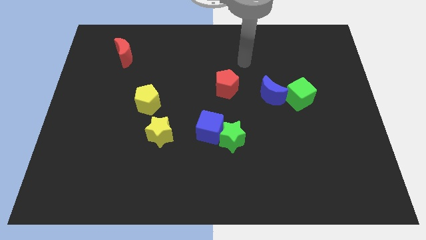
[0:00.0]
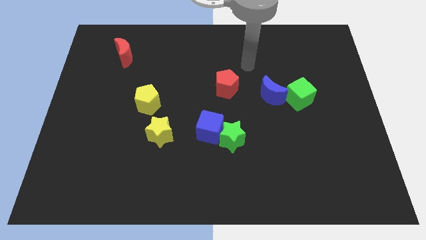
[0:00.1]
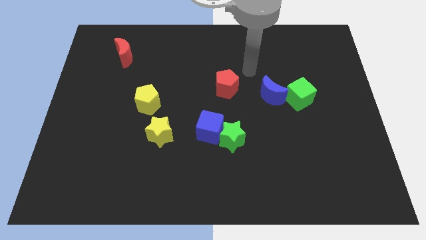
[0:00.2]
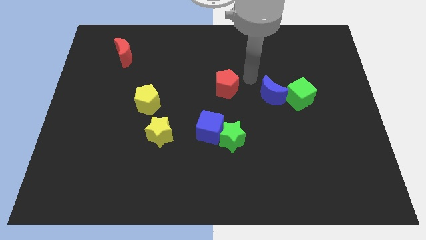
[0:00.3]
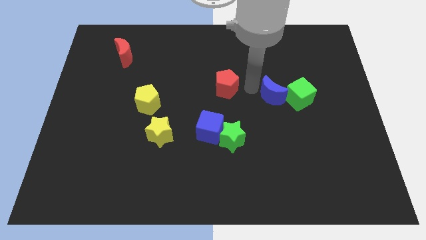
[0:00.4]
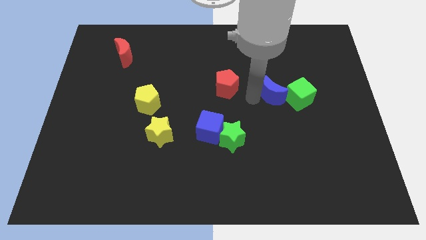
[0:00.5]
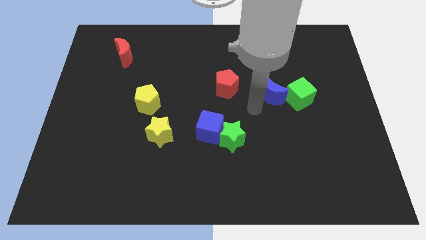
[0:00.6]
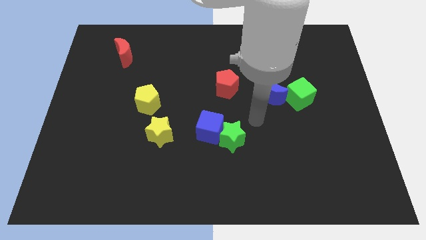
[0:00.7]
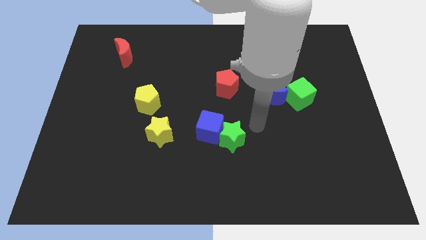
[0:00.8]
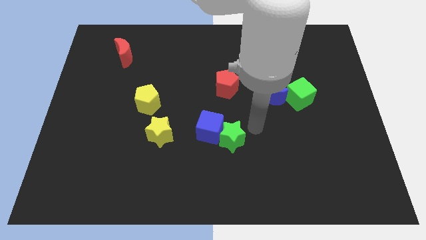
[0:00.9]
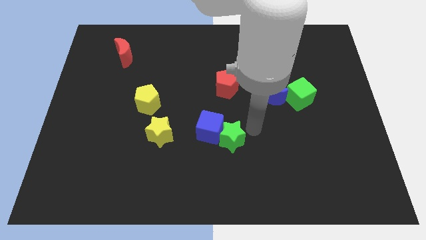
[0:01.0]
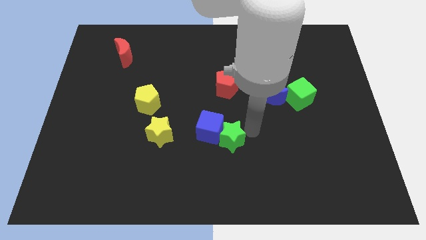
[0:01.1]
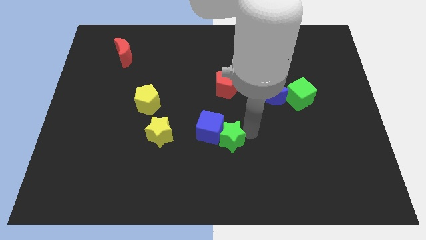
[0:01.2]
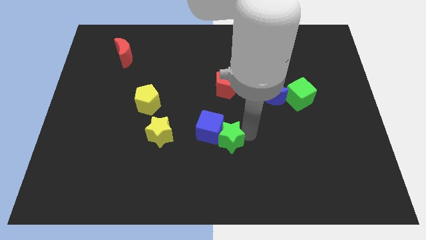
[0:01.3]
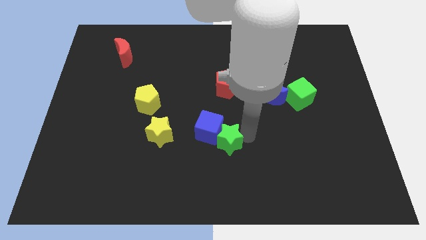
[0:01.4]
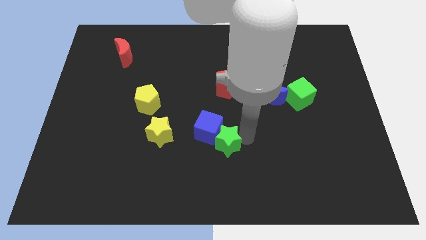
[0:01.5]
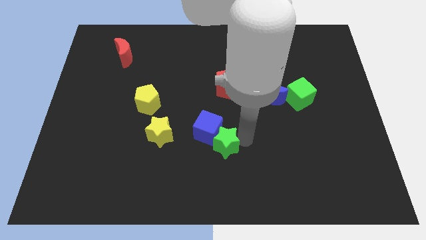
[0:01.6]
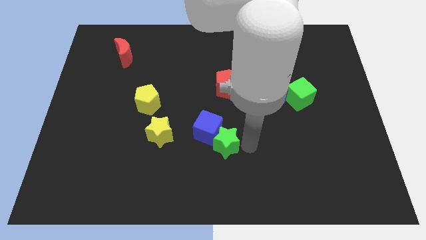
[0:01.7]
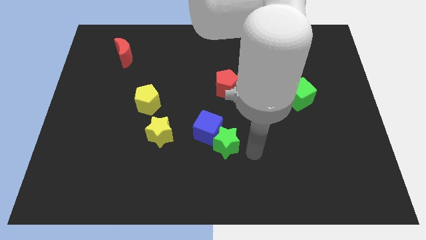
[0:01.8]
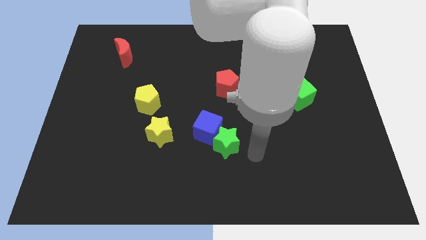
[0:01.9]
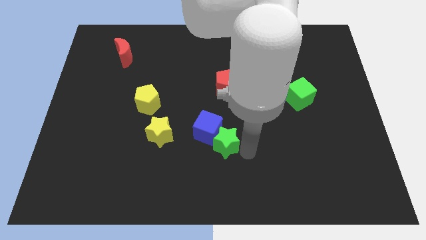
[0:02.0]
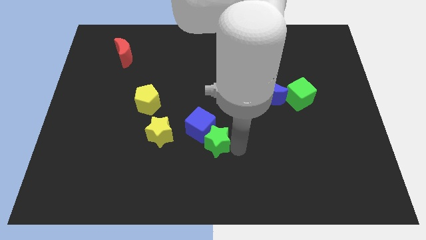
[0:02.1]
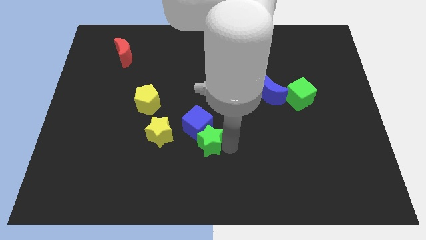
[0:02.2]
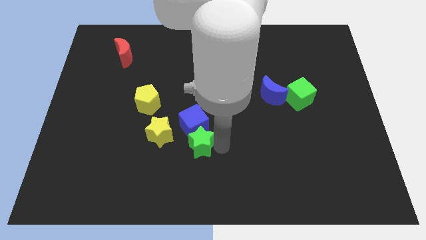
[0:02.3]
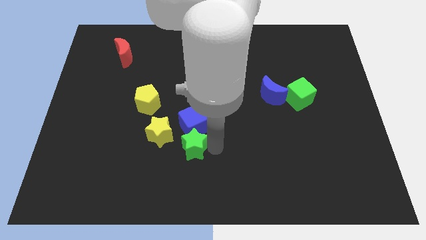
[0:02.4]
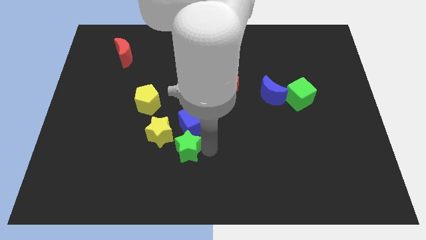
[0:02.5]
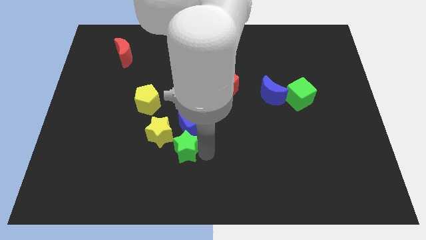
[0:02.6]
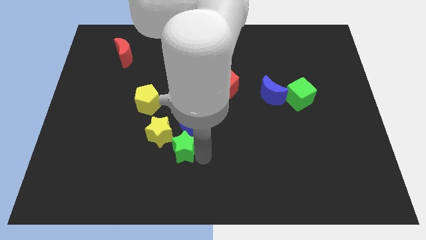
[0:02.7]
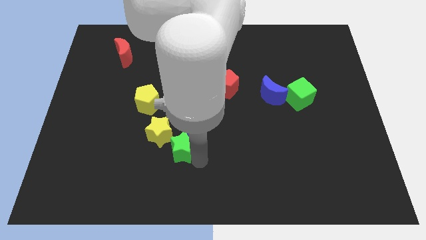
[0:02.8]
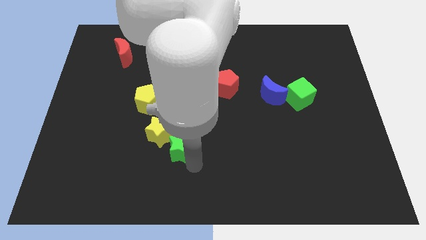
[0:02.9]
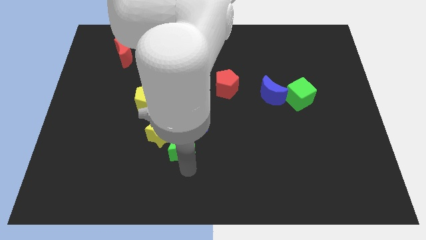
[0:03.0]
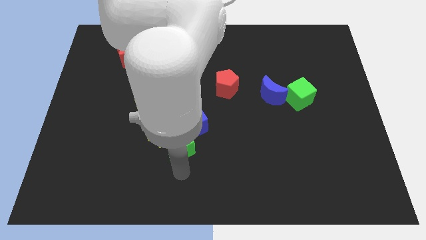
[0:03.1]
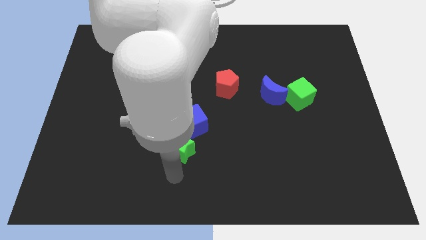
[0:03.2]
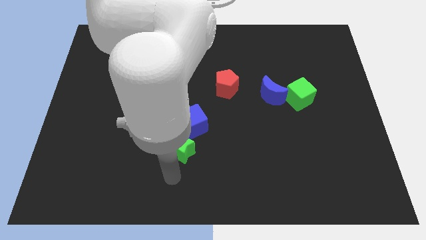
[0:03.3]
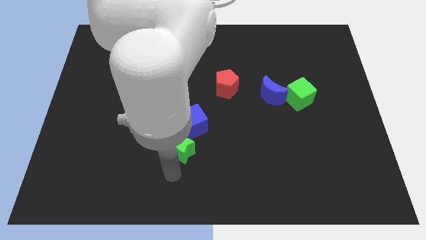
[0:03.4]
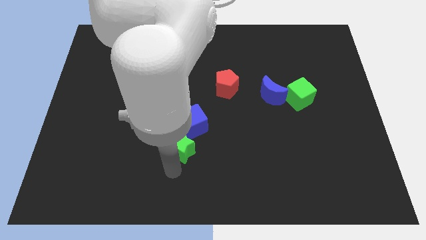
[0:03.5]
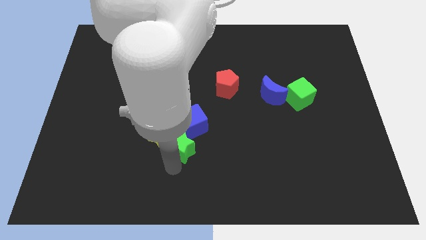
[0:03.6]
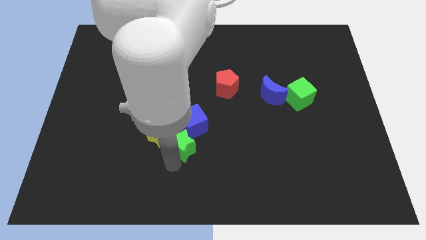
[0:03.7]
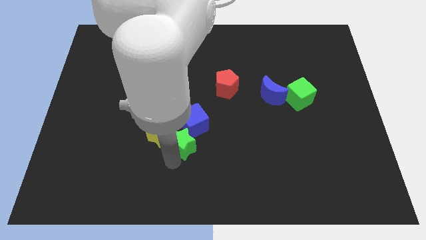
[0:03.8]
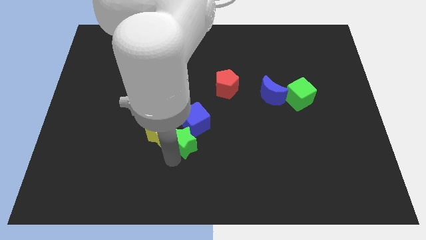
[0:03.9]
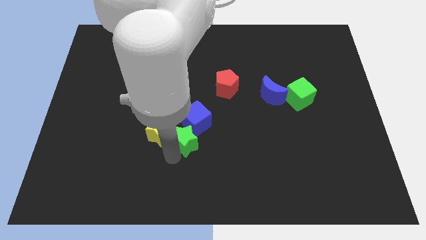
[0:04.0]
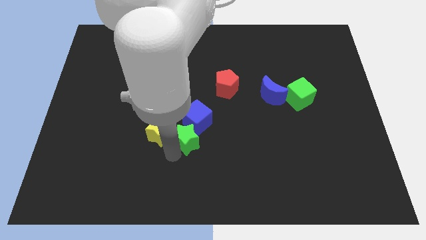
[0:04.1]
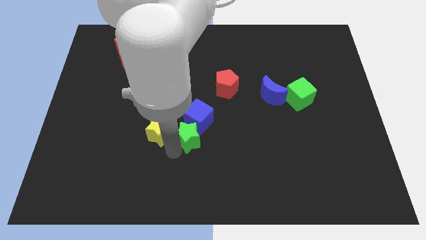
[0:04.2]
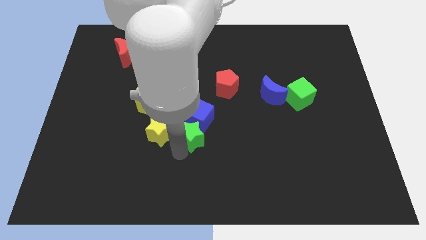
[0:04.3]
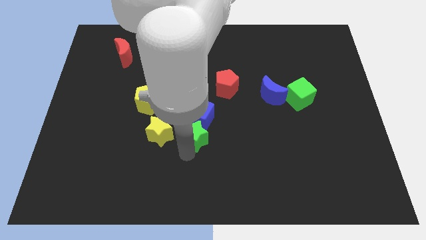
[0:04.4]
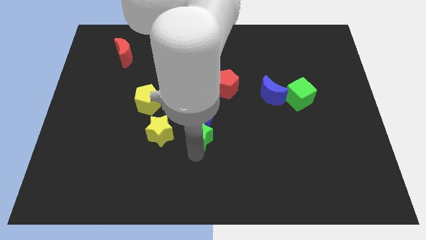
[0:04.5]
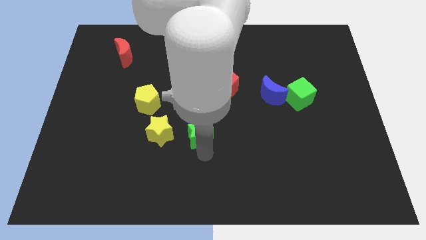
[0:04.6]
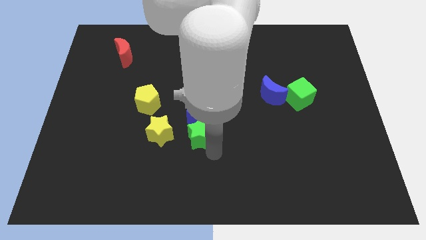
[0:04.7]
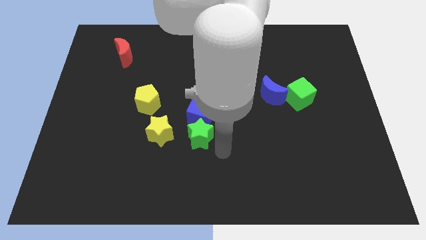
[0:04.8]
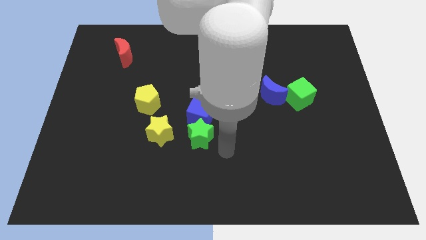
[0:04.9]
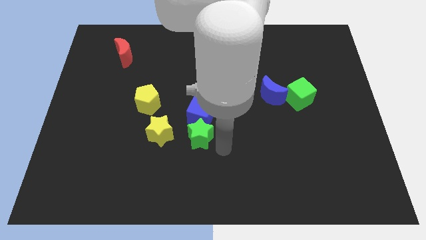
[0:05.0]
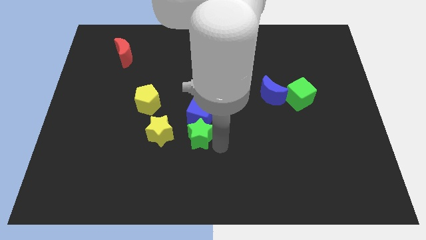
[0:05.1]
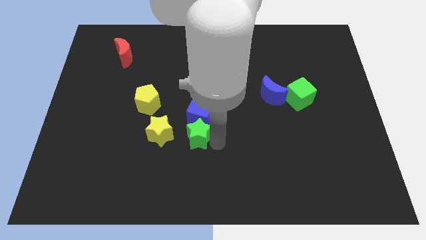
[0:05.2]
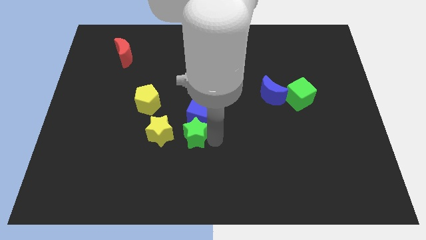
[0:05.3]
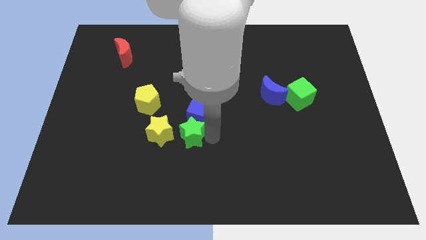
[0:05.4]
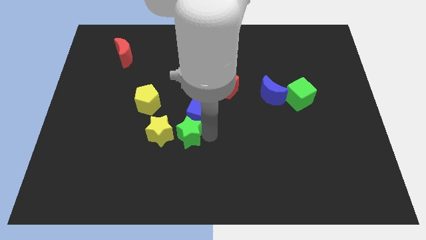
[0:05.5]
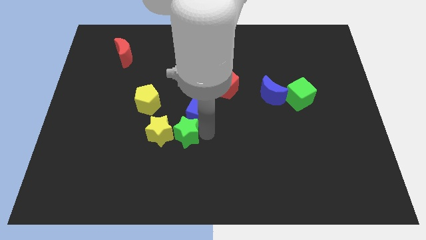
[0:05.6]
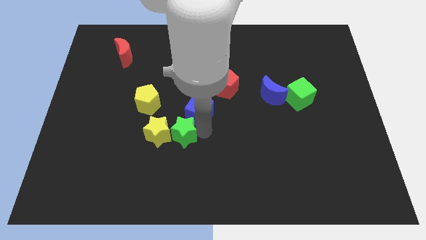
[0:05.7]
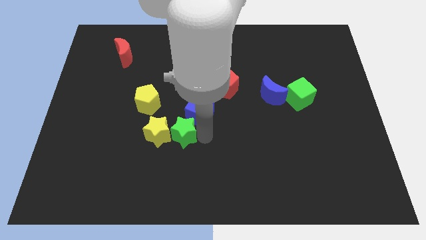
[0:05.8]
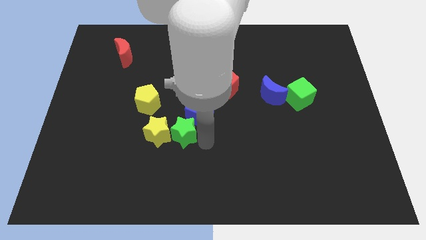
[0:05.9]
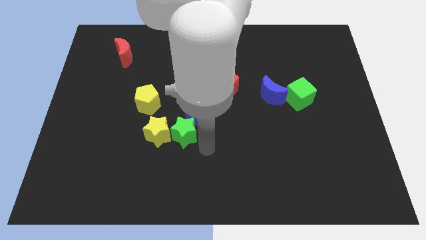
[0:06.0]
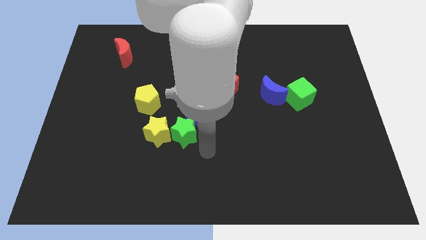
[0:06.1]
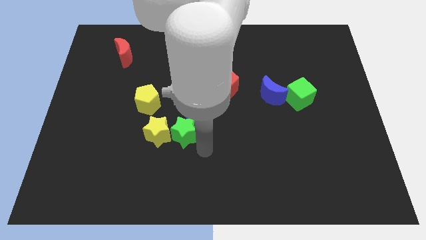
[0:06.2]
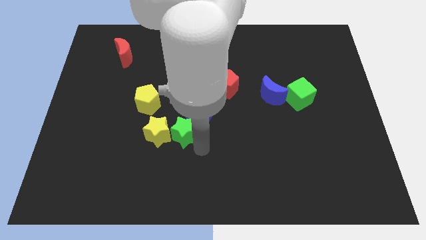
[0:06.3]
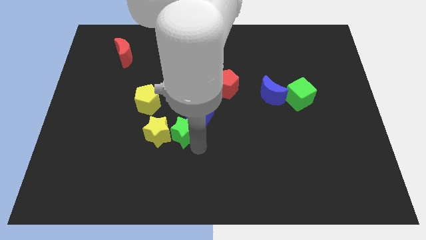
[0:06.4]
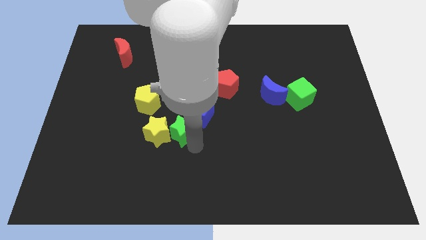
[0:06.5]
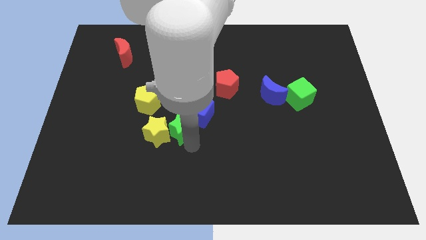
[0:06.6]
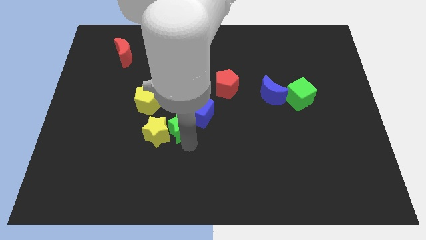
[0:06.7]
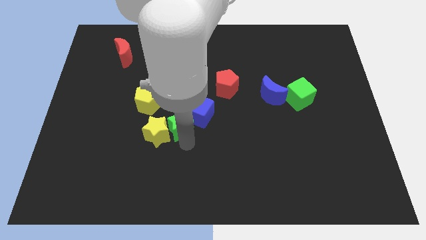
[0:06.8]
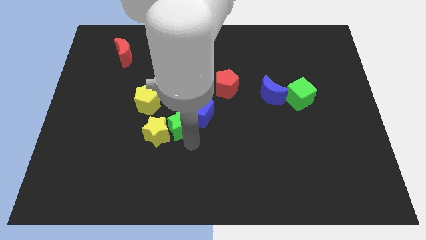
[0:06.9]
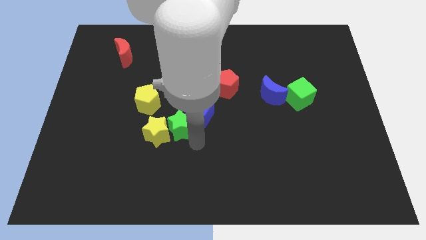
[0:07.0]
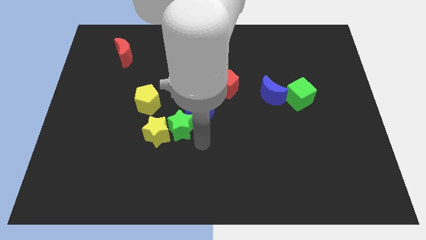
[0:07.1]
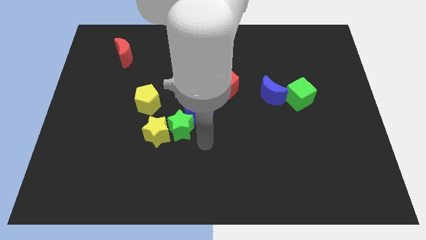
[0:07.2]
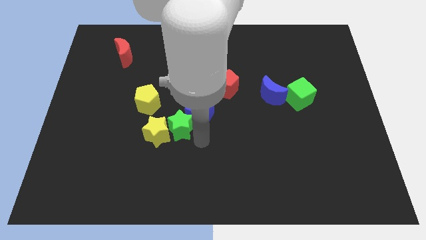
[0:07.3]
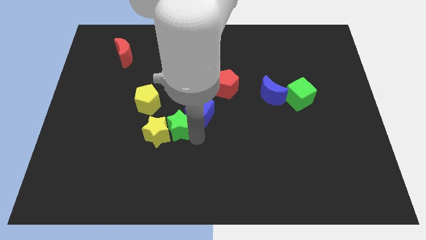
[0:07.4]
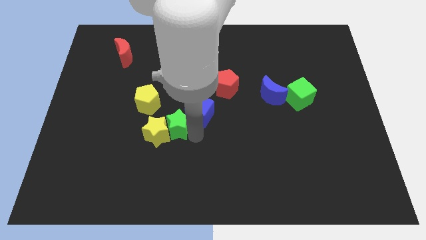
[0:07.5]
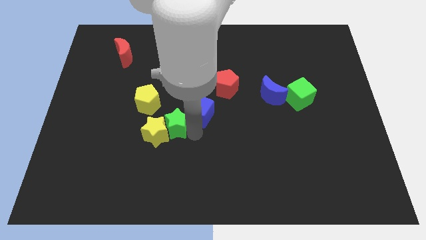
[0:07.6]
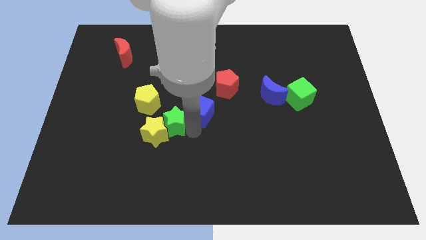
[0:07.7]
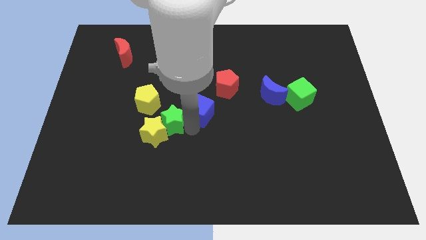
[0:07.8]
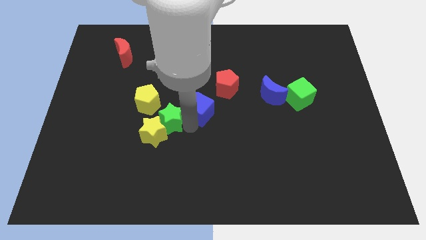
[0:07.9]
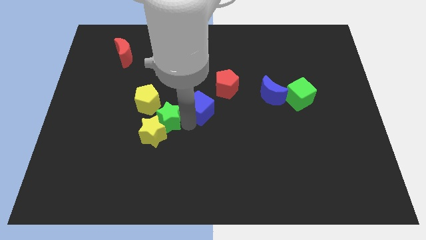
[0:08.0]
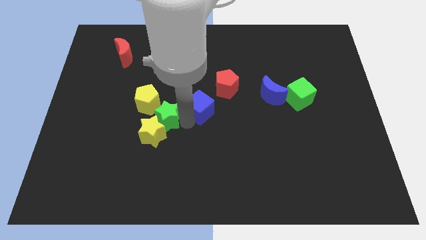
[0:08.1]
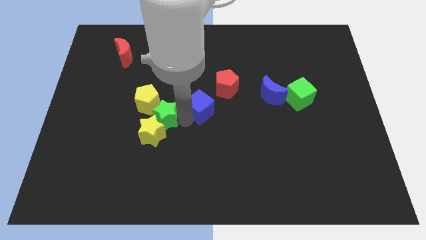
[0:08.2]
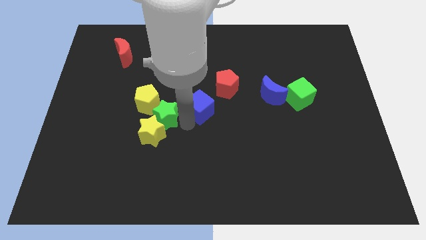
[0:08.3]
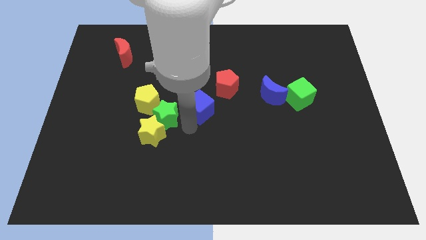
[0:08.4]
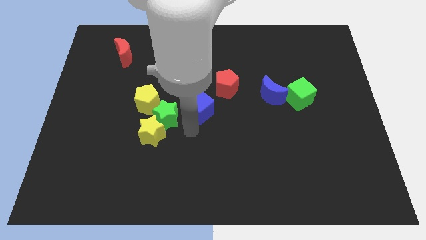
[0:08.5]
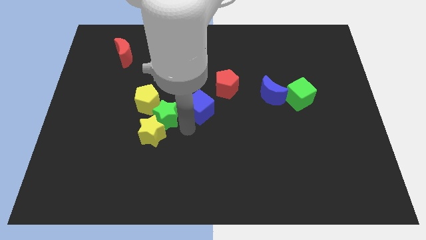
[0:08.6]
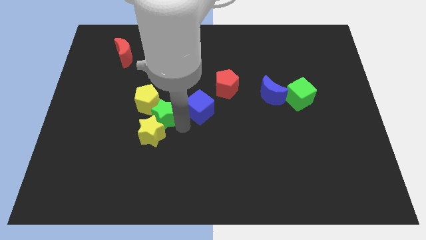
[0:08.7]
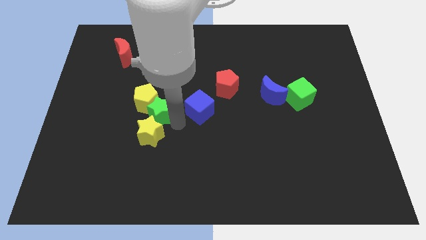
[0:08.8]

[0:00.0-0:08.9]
put the green star next to the yellow pentagon
